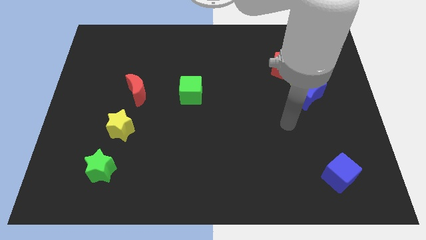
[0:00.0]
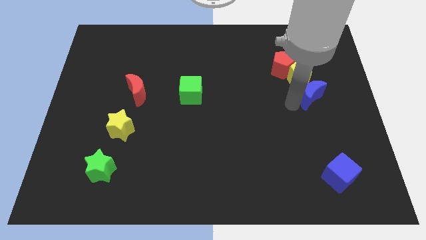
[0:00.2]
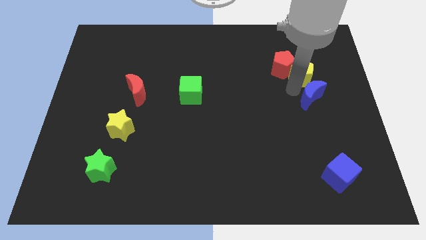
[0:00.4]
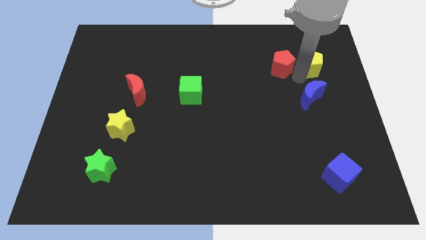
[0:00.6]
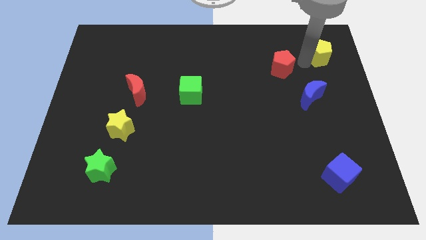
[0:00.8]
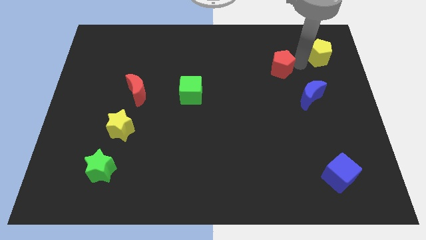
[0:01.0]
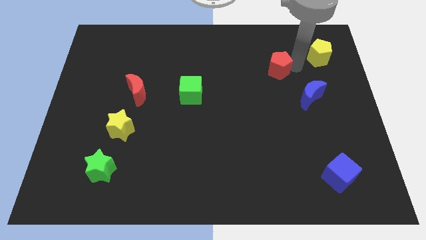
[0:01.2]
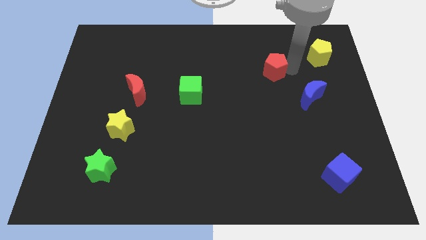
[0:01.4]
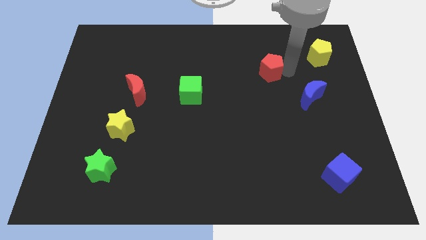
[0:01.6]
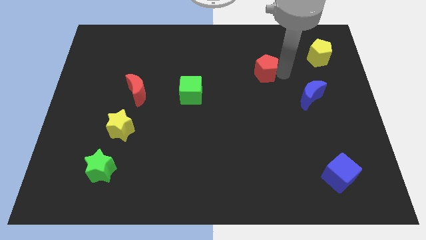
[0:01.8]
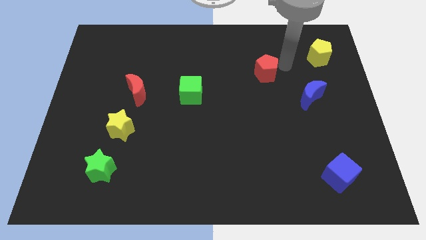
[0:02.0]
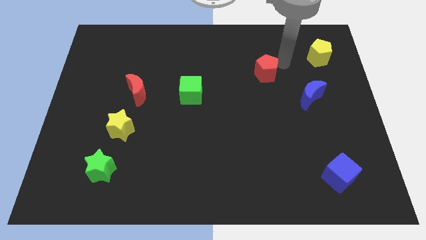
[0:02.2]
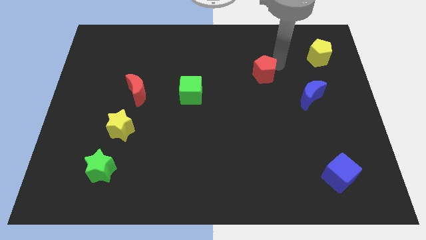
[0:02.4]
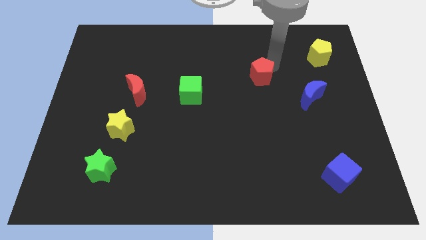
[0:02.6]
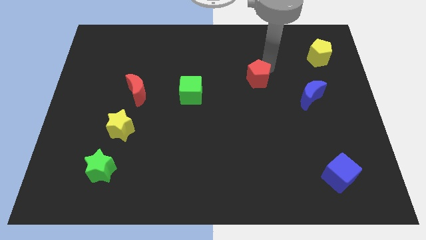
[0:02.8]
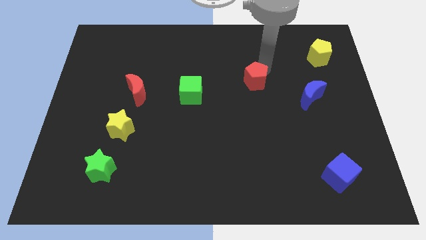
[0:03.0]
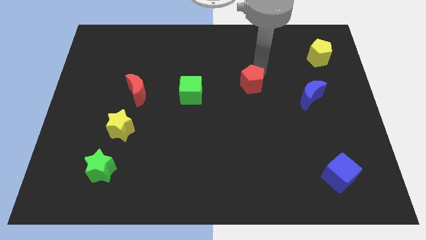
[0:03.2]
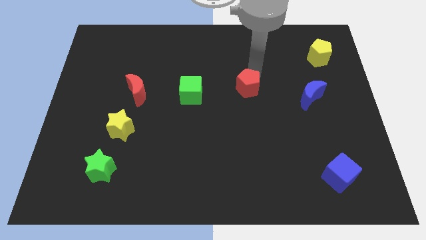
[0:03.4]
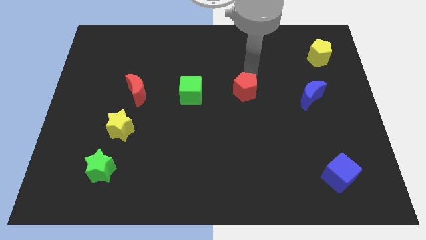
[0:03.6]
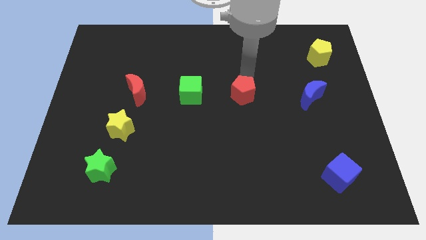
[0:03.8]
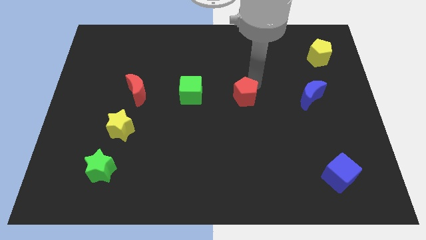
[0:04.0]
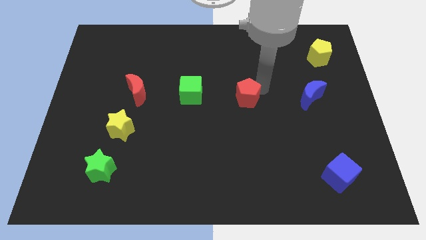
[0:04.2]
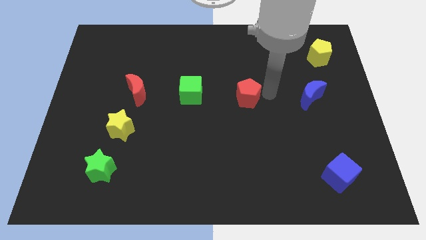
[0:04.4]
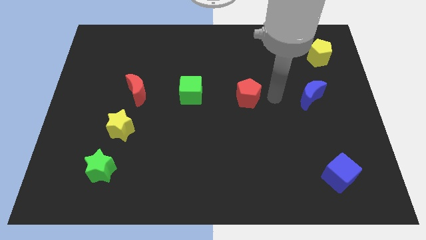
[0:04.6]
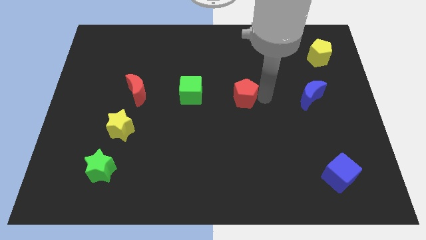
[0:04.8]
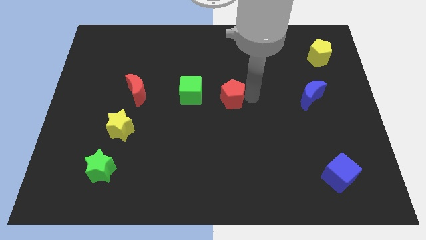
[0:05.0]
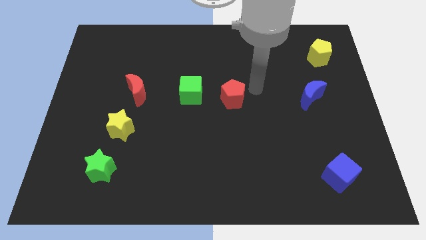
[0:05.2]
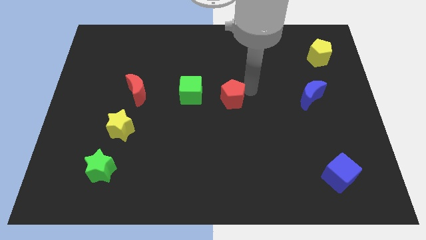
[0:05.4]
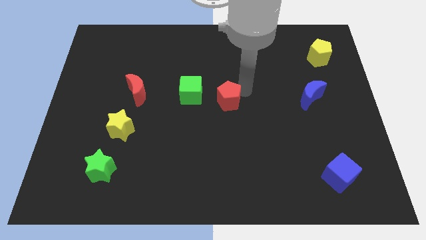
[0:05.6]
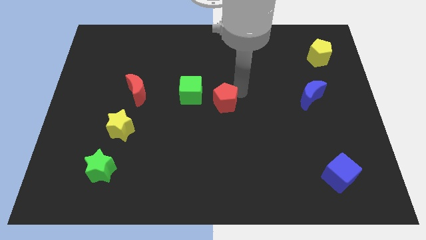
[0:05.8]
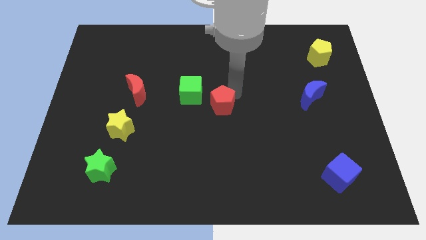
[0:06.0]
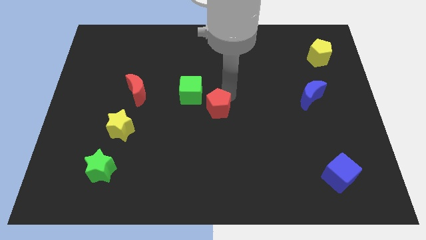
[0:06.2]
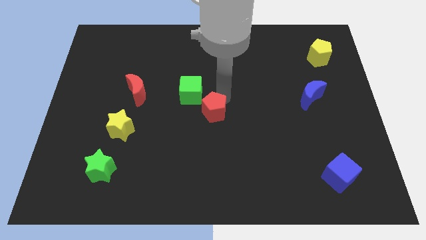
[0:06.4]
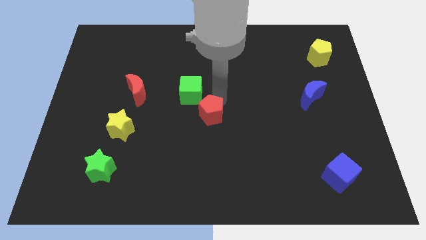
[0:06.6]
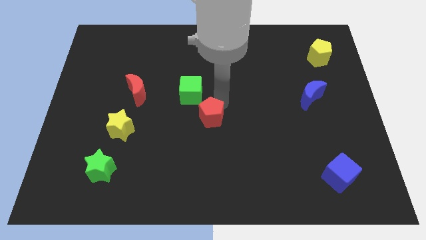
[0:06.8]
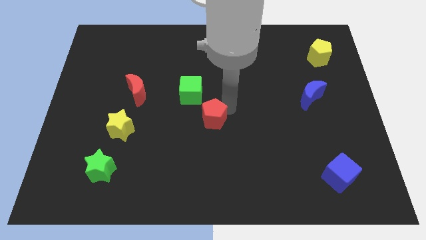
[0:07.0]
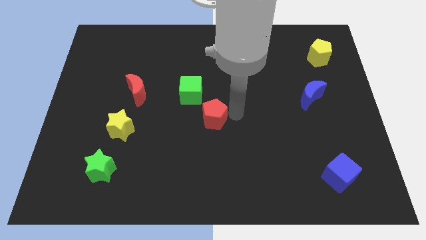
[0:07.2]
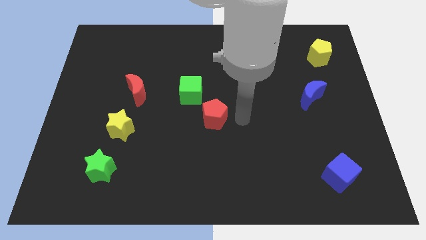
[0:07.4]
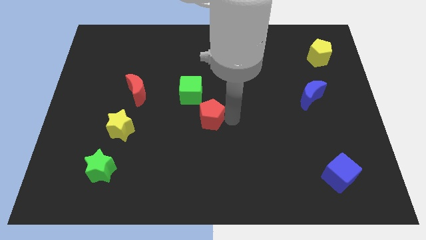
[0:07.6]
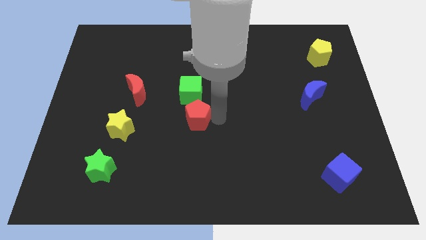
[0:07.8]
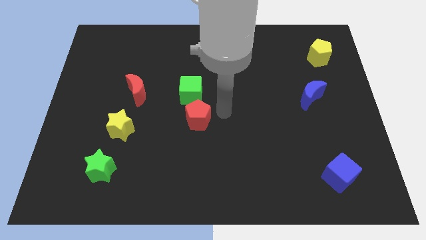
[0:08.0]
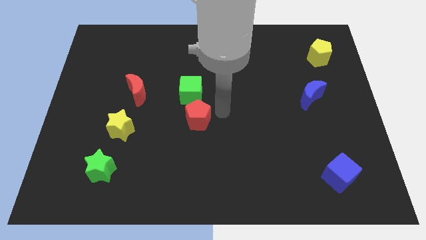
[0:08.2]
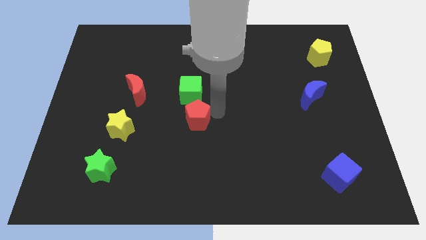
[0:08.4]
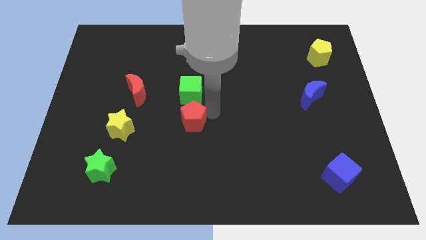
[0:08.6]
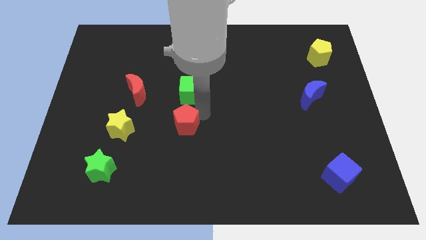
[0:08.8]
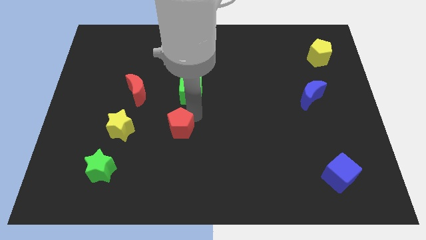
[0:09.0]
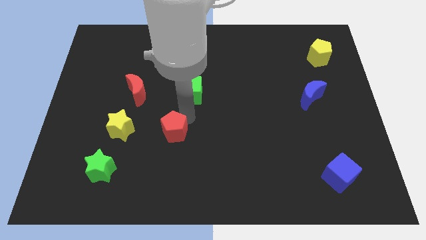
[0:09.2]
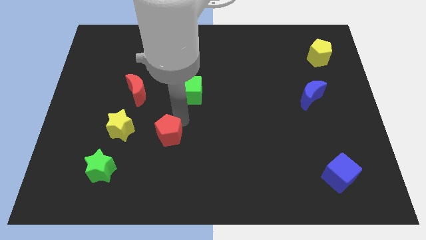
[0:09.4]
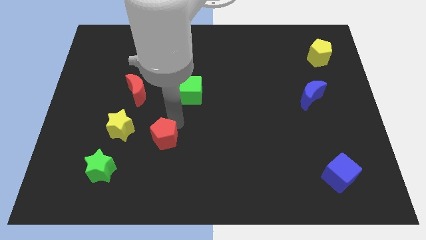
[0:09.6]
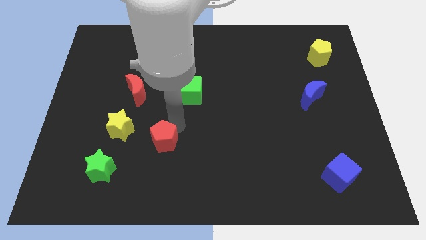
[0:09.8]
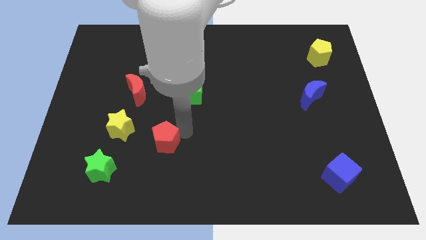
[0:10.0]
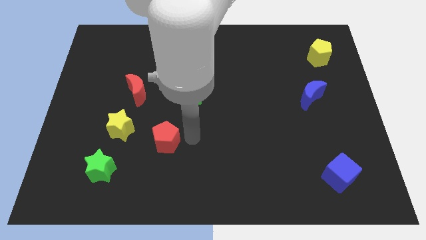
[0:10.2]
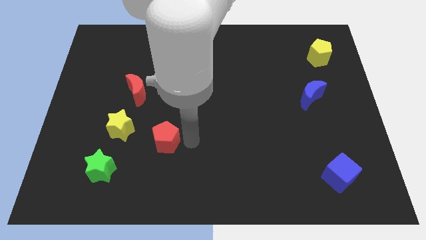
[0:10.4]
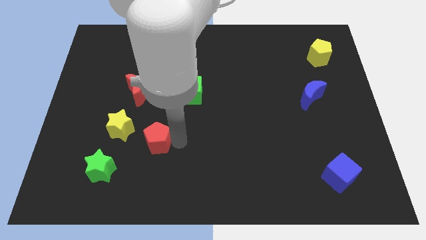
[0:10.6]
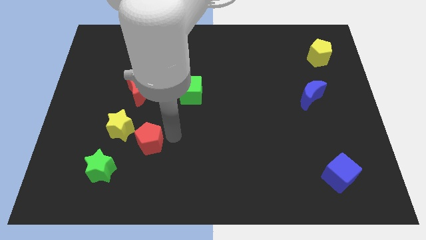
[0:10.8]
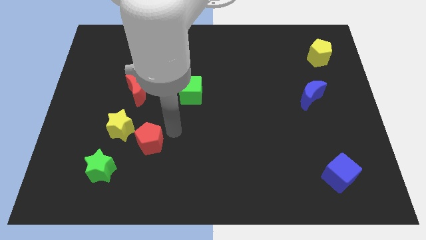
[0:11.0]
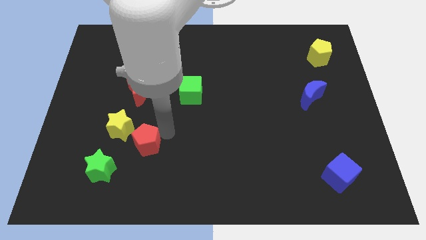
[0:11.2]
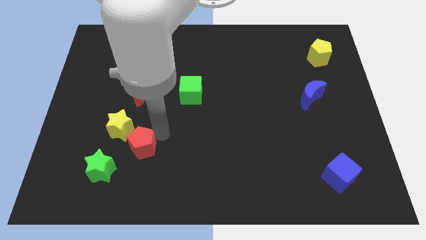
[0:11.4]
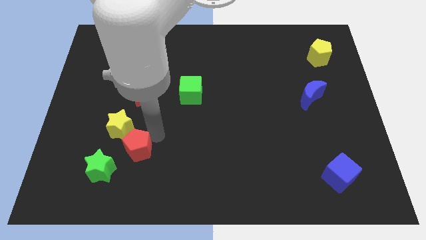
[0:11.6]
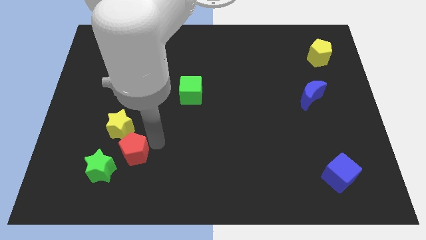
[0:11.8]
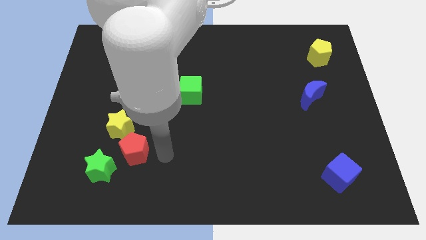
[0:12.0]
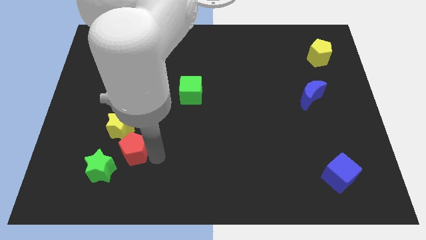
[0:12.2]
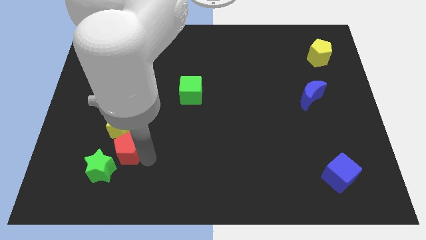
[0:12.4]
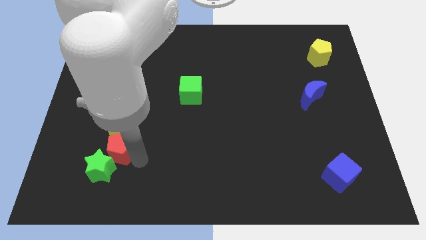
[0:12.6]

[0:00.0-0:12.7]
slide the red pentagon diagonally down and to the left of the yellow star
